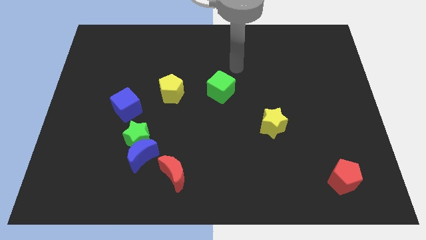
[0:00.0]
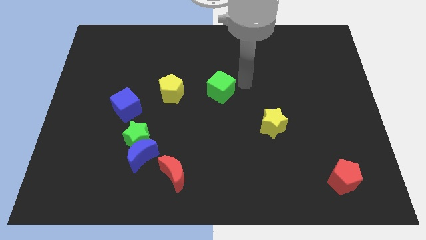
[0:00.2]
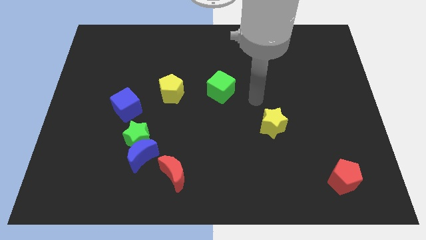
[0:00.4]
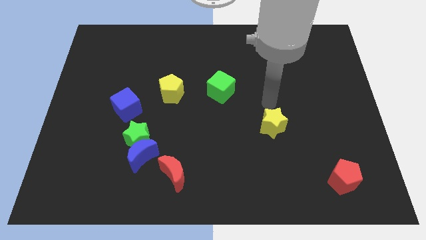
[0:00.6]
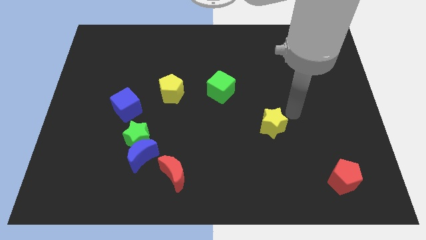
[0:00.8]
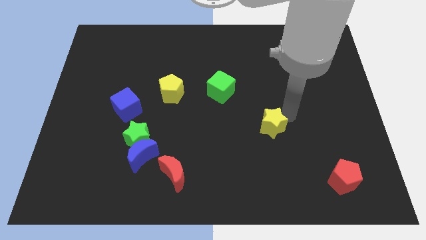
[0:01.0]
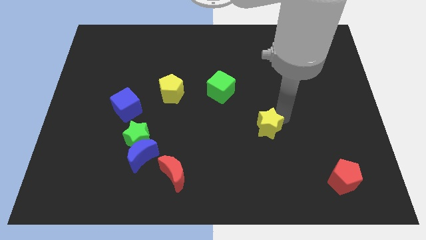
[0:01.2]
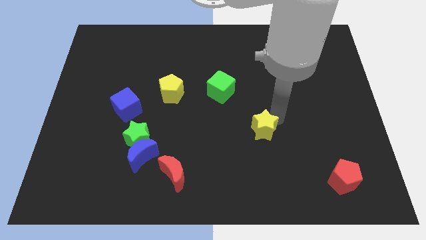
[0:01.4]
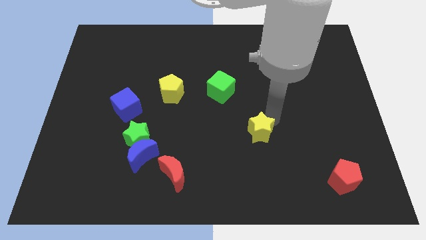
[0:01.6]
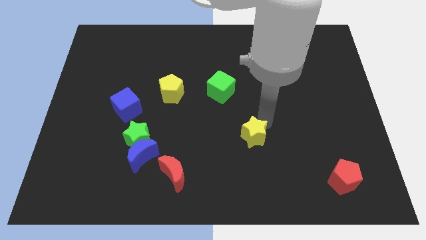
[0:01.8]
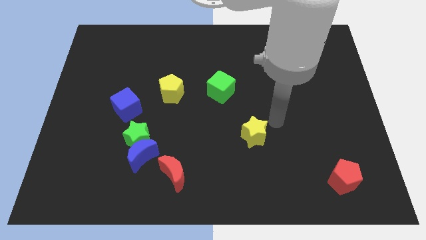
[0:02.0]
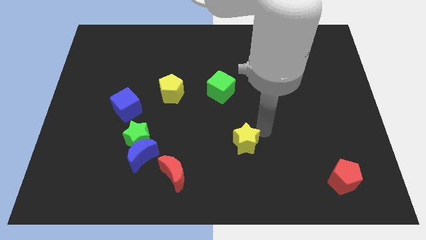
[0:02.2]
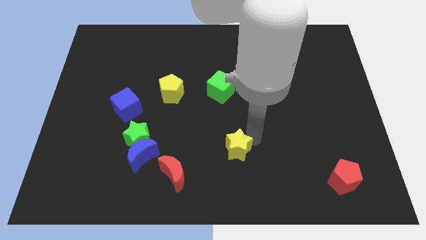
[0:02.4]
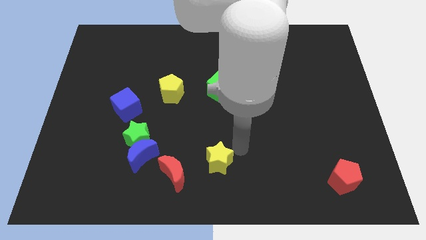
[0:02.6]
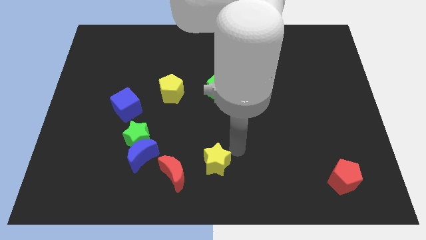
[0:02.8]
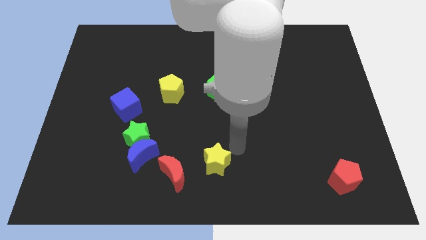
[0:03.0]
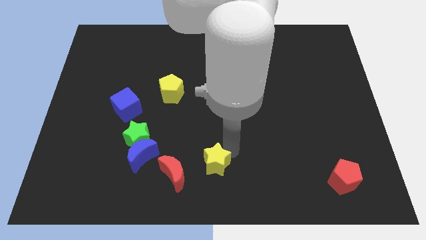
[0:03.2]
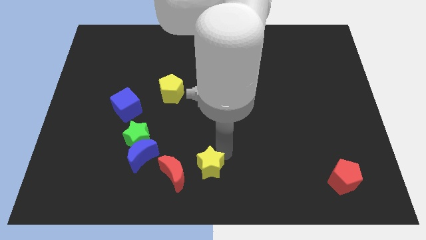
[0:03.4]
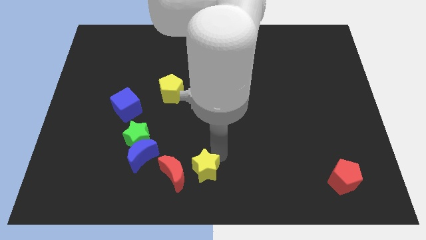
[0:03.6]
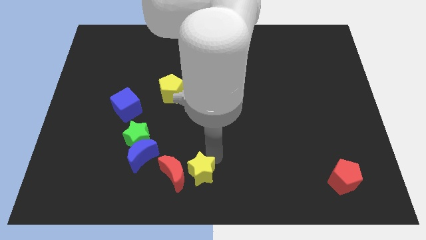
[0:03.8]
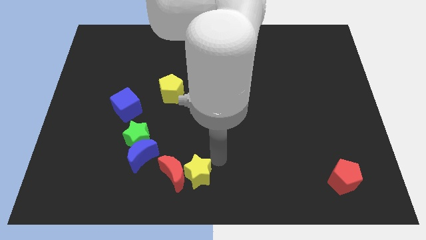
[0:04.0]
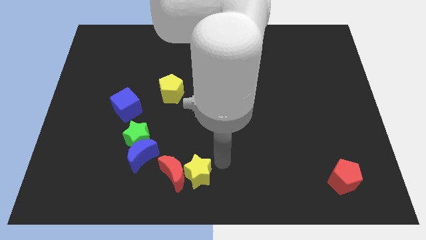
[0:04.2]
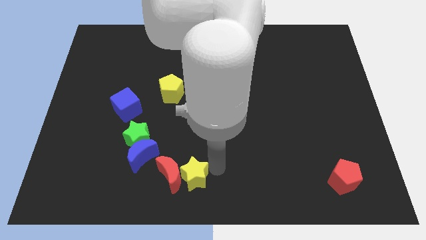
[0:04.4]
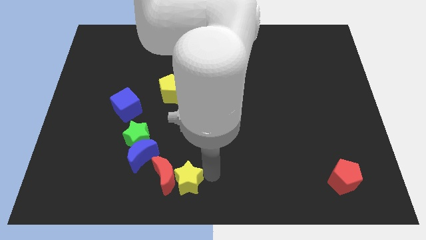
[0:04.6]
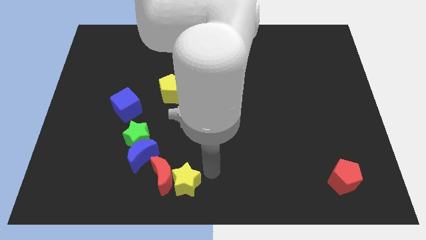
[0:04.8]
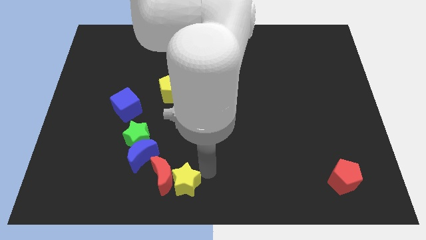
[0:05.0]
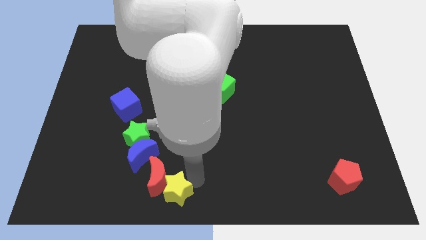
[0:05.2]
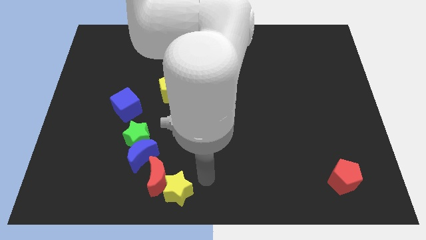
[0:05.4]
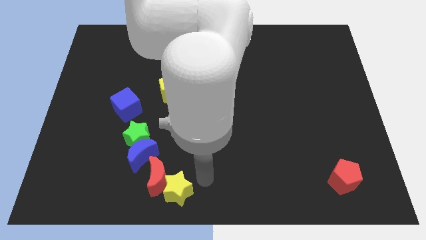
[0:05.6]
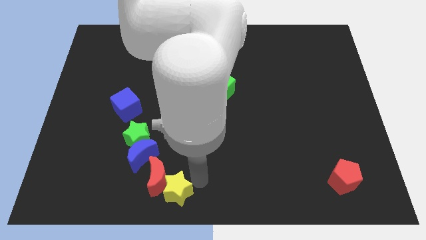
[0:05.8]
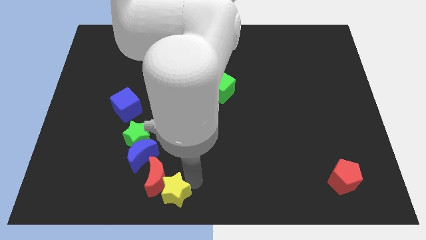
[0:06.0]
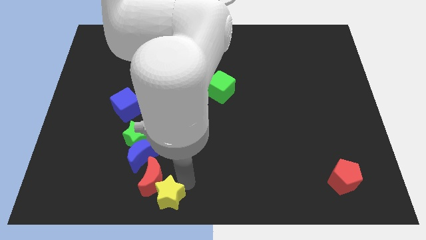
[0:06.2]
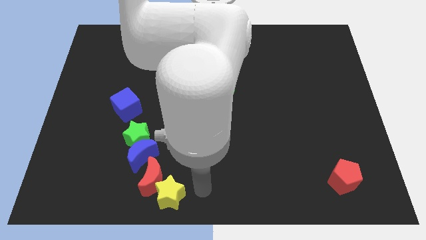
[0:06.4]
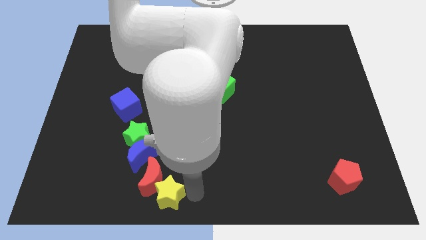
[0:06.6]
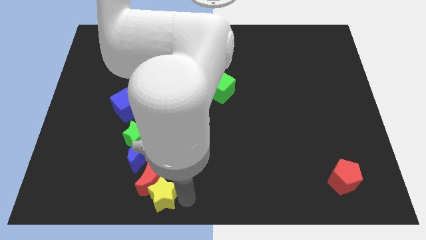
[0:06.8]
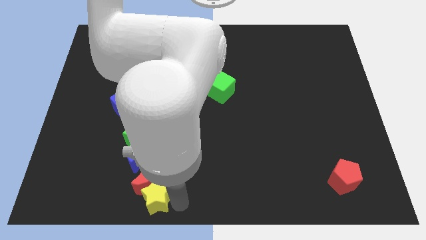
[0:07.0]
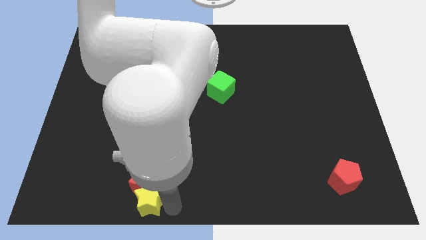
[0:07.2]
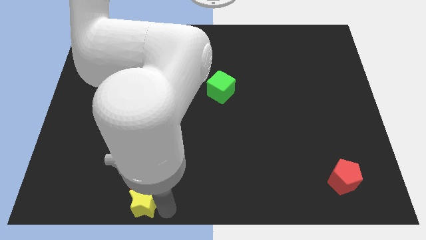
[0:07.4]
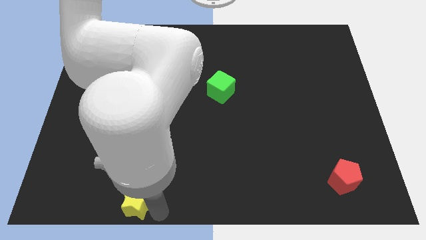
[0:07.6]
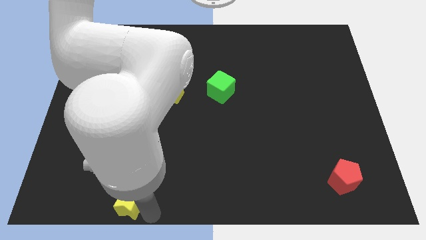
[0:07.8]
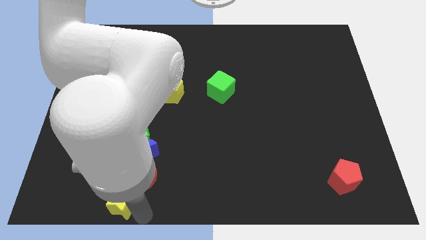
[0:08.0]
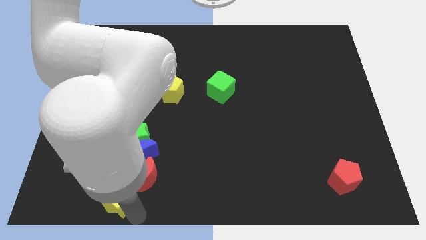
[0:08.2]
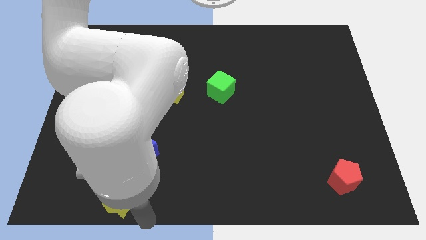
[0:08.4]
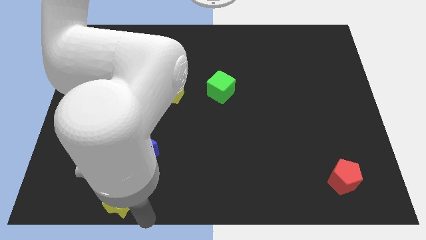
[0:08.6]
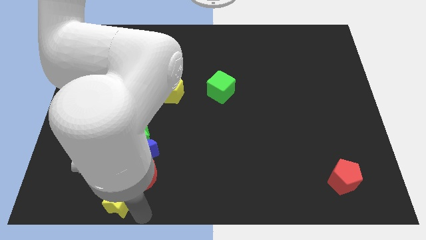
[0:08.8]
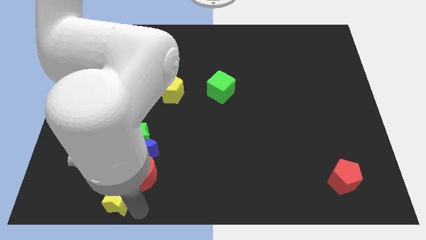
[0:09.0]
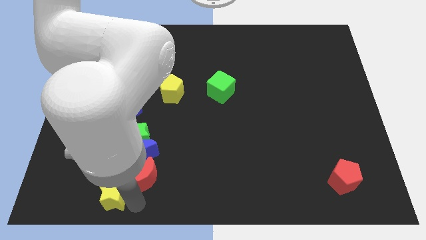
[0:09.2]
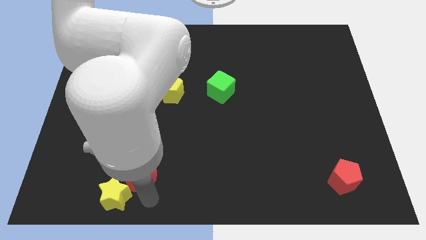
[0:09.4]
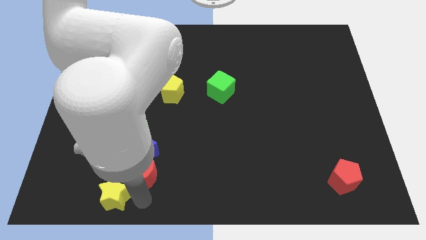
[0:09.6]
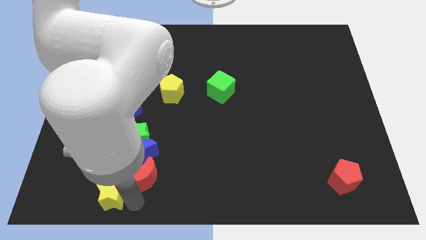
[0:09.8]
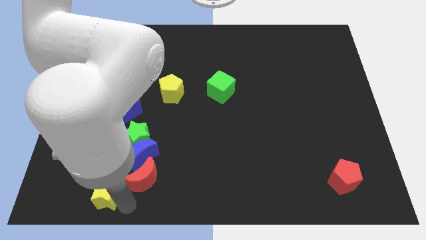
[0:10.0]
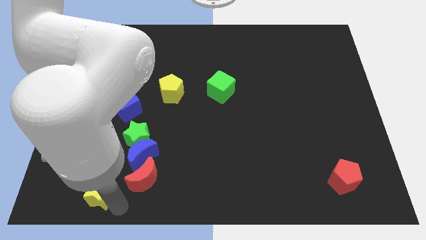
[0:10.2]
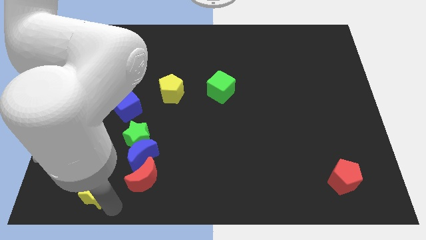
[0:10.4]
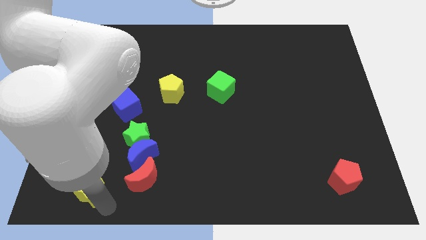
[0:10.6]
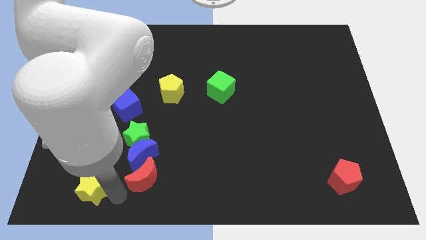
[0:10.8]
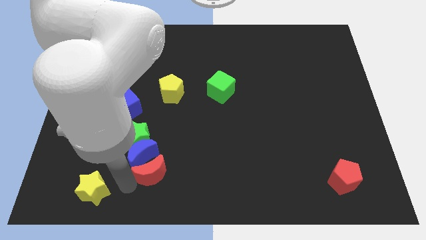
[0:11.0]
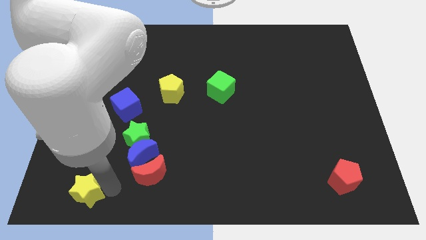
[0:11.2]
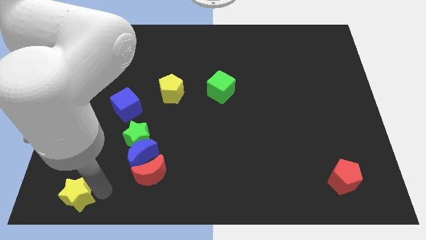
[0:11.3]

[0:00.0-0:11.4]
put the yellow star to the lower left corner

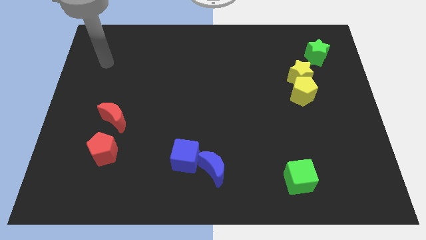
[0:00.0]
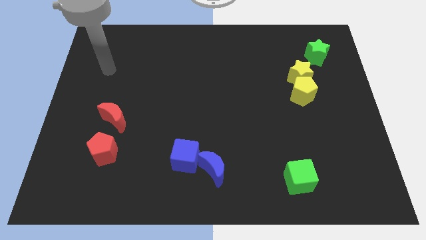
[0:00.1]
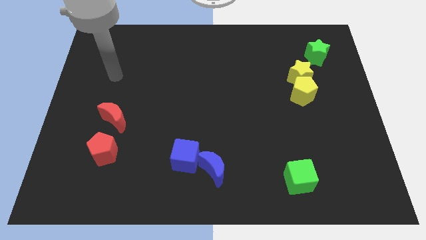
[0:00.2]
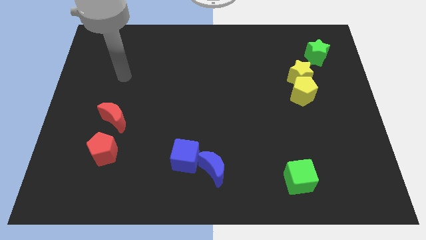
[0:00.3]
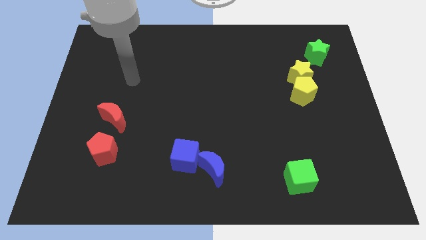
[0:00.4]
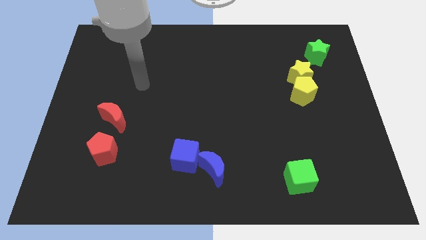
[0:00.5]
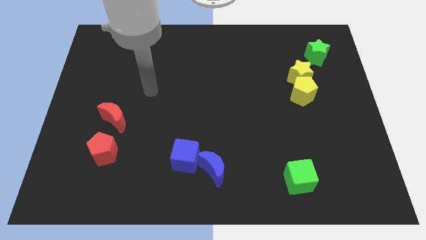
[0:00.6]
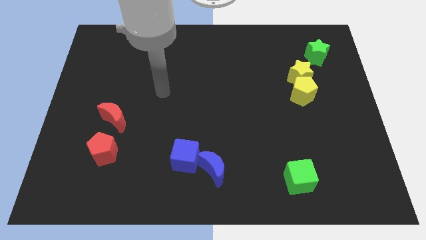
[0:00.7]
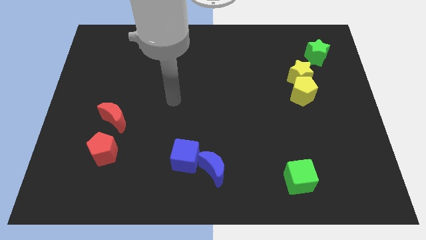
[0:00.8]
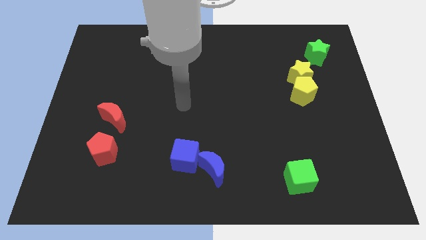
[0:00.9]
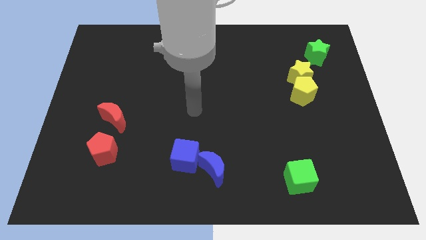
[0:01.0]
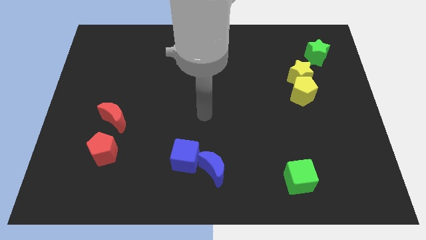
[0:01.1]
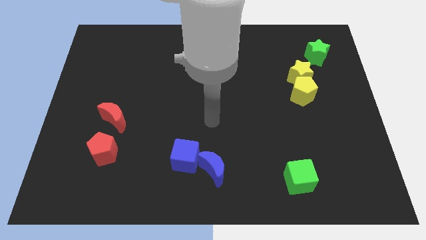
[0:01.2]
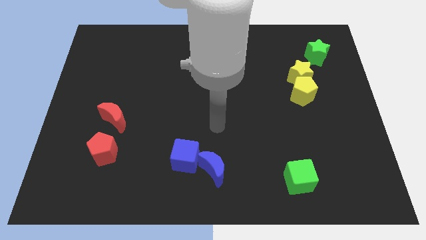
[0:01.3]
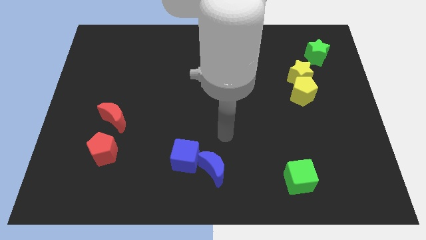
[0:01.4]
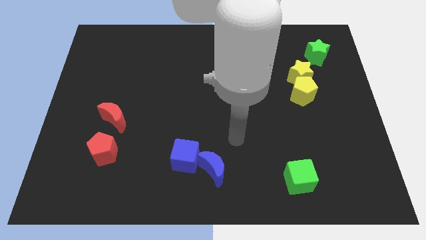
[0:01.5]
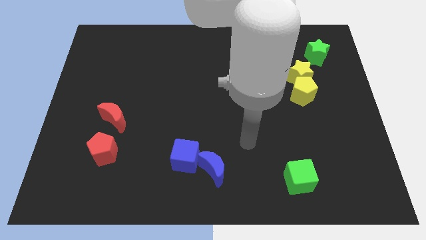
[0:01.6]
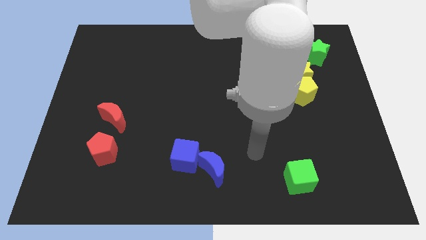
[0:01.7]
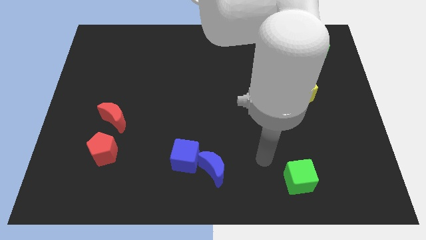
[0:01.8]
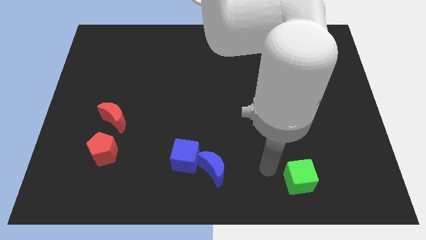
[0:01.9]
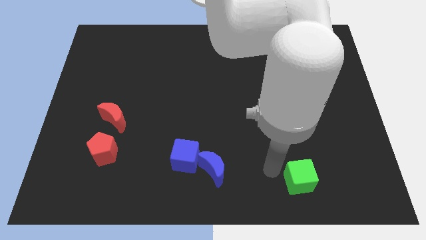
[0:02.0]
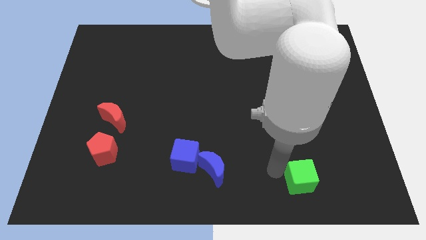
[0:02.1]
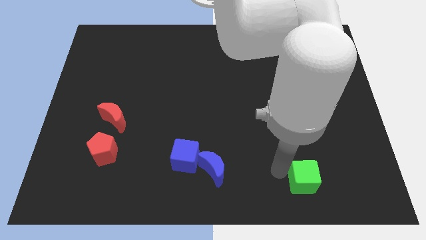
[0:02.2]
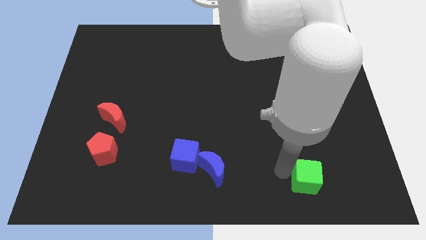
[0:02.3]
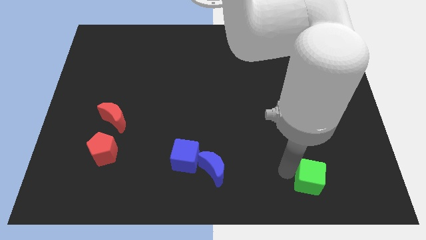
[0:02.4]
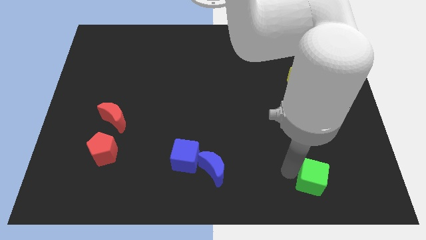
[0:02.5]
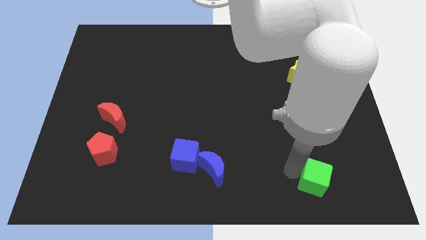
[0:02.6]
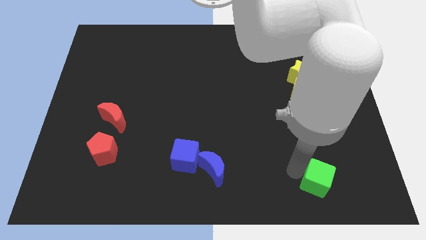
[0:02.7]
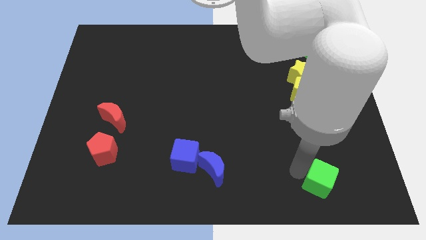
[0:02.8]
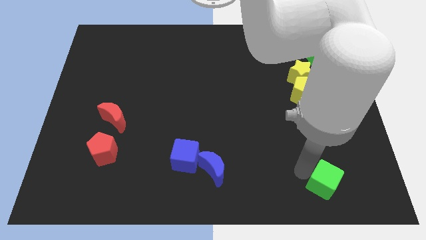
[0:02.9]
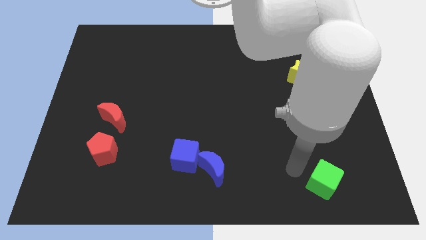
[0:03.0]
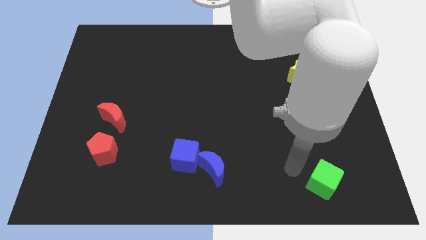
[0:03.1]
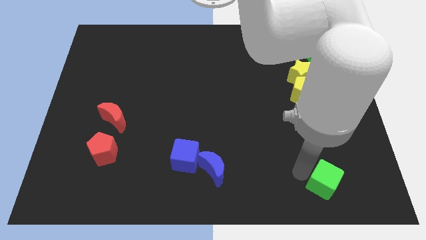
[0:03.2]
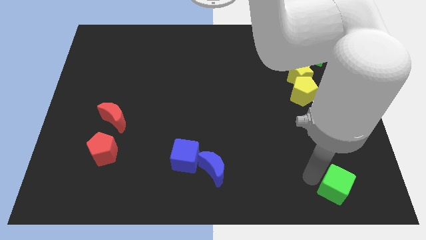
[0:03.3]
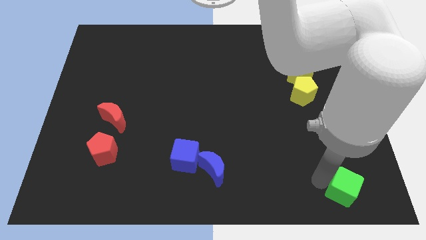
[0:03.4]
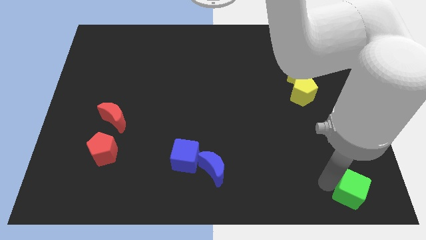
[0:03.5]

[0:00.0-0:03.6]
put the green cube to the bottom right of the board
